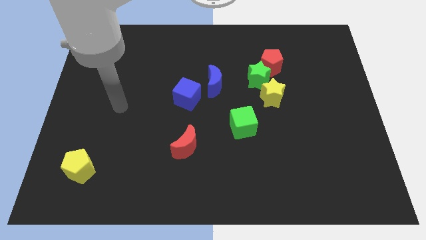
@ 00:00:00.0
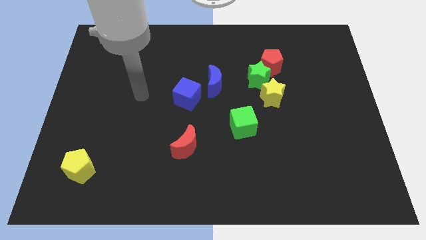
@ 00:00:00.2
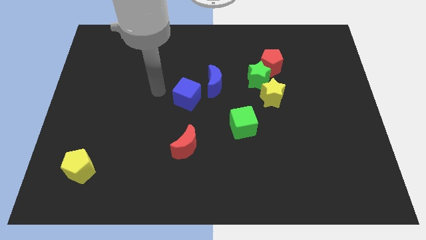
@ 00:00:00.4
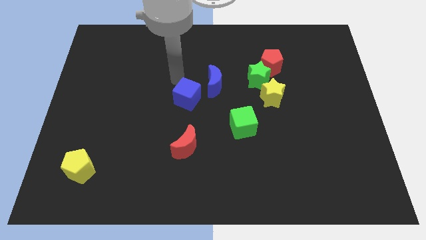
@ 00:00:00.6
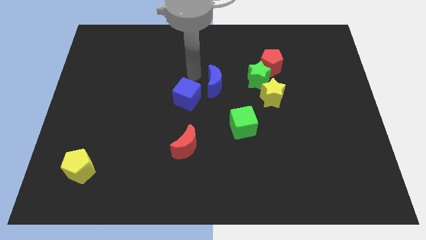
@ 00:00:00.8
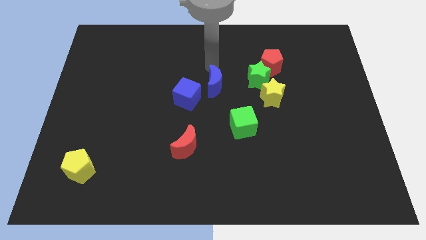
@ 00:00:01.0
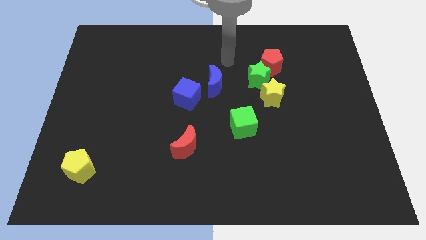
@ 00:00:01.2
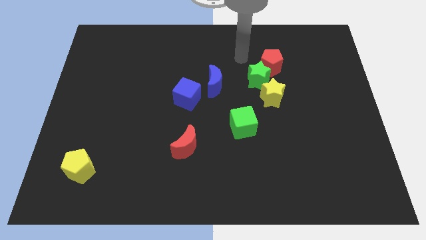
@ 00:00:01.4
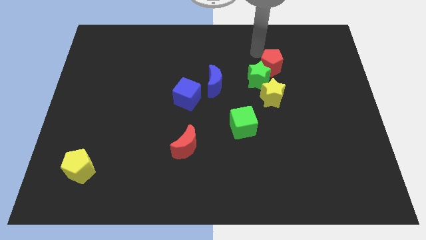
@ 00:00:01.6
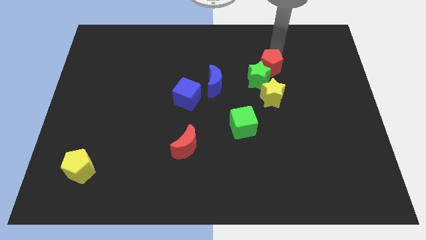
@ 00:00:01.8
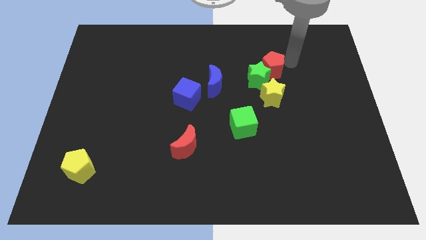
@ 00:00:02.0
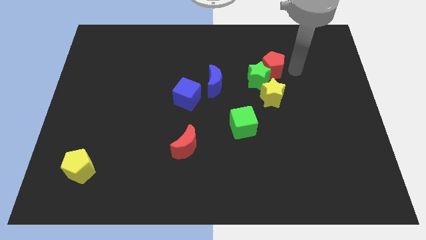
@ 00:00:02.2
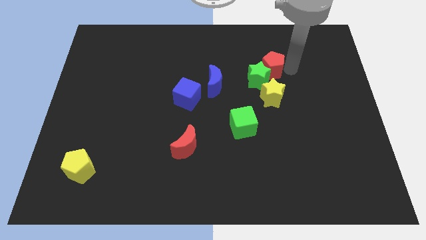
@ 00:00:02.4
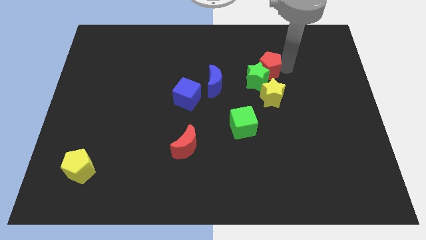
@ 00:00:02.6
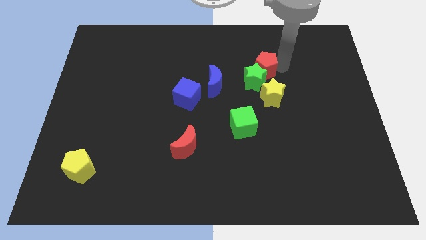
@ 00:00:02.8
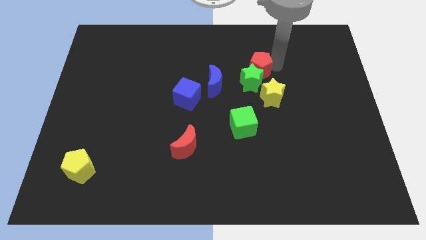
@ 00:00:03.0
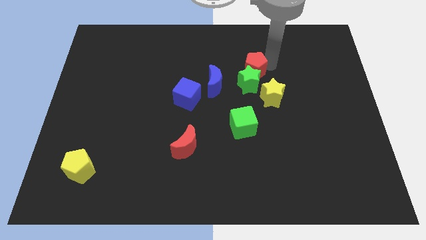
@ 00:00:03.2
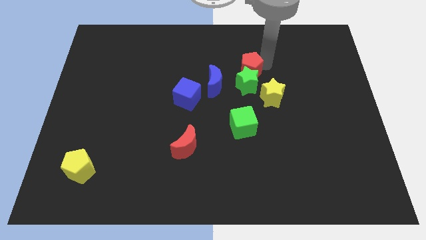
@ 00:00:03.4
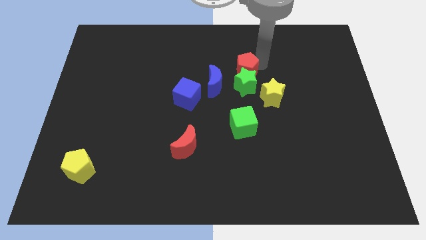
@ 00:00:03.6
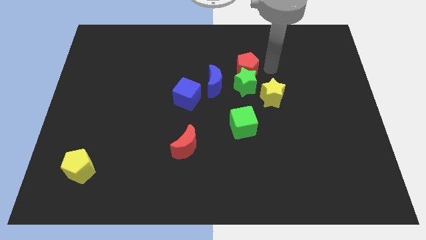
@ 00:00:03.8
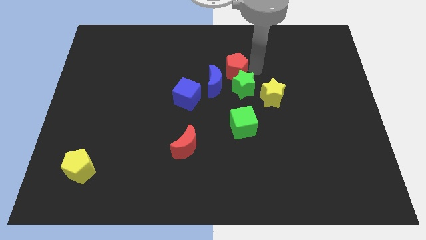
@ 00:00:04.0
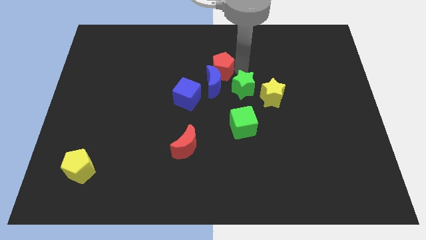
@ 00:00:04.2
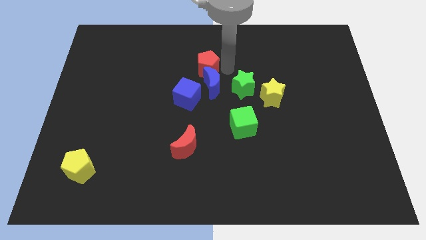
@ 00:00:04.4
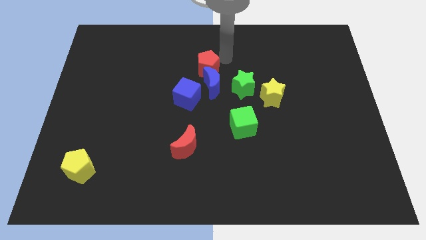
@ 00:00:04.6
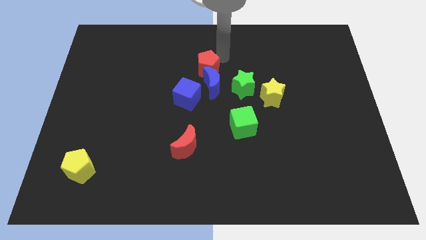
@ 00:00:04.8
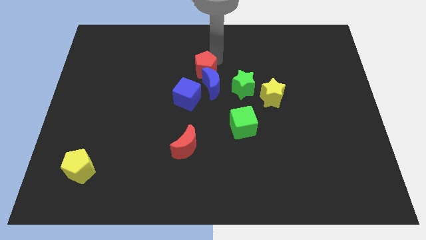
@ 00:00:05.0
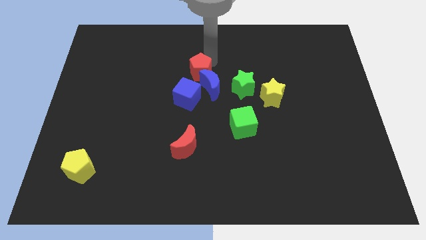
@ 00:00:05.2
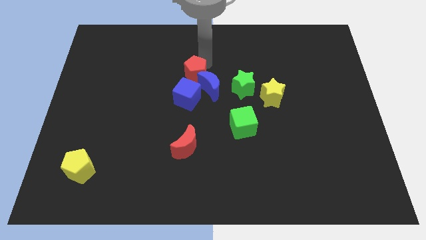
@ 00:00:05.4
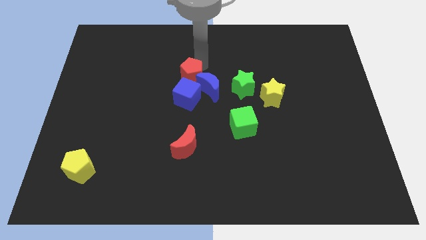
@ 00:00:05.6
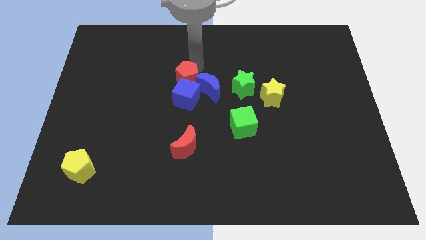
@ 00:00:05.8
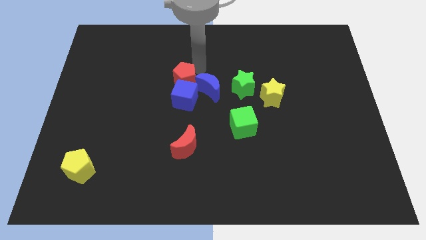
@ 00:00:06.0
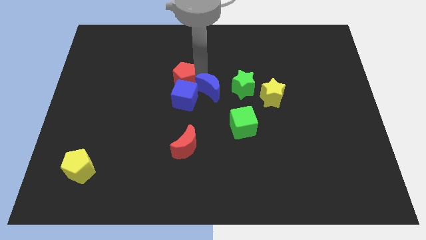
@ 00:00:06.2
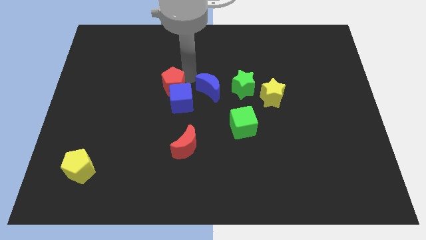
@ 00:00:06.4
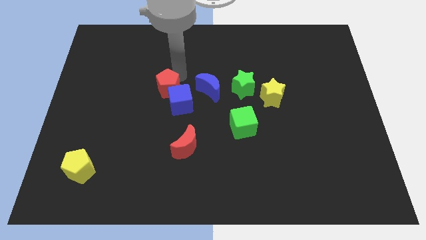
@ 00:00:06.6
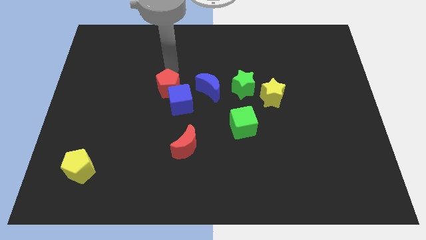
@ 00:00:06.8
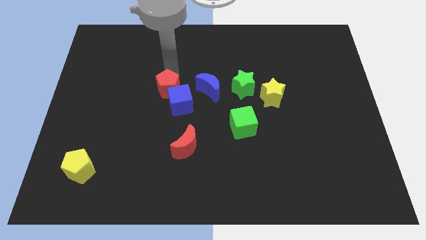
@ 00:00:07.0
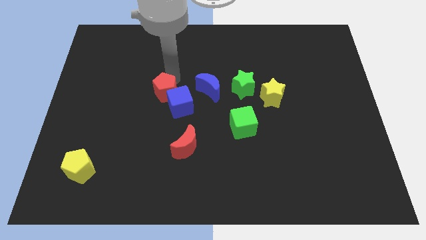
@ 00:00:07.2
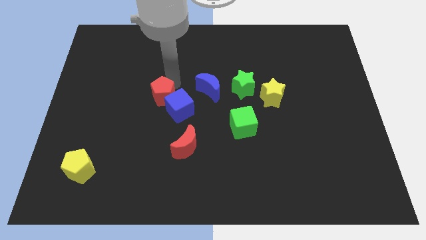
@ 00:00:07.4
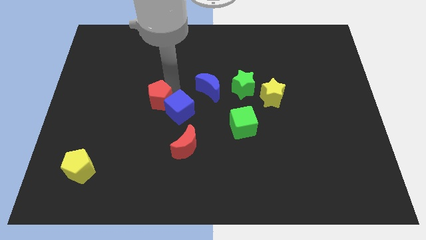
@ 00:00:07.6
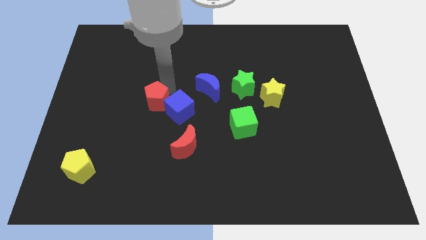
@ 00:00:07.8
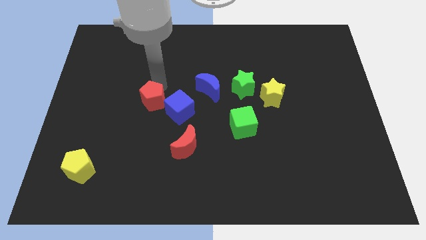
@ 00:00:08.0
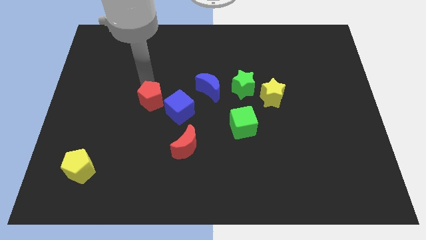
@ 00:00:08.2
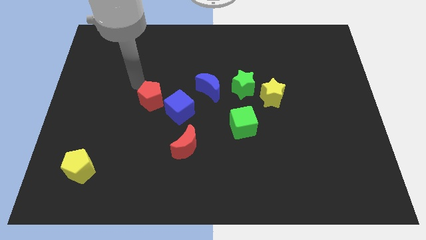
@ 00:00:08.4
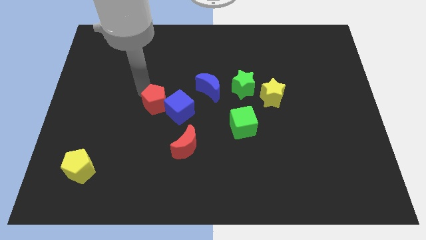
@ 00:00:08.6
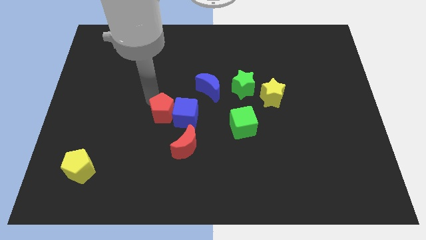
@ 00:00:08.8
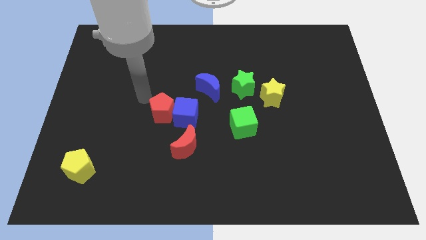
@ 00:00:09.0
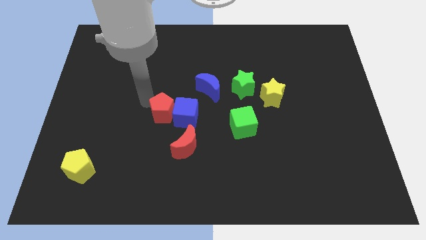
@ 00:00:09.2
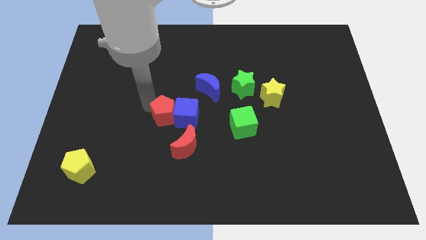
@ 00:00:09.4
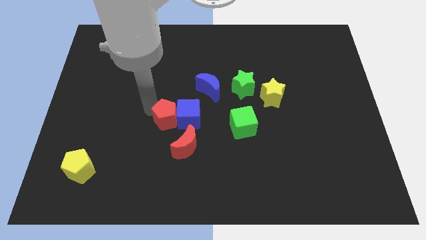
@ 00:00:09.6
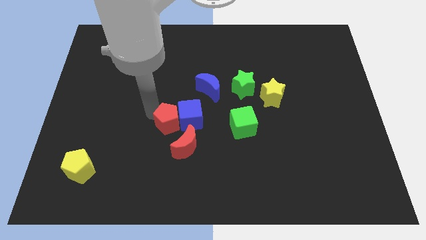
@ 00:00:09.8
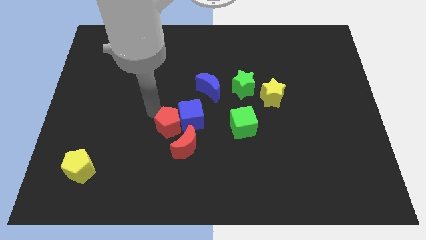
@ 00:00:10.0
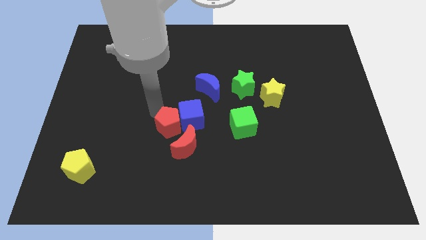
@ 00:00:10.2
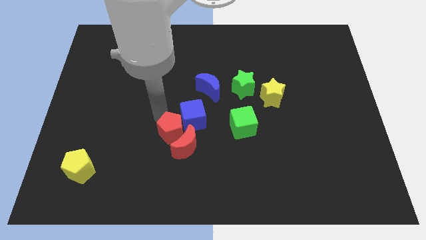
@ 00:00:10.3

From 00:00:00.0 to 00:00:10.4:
put the red pentagon close to the red moon

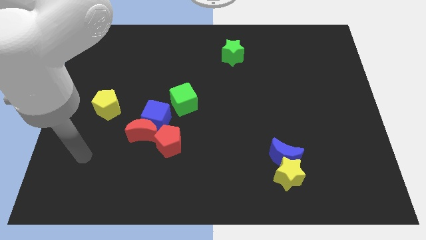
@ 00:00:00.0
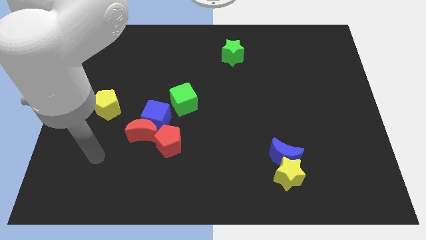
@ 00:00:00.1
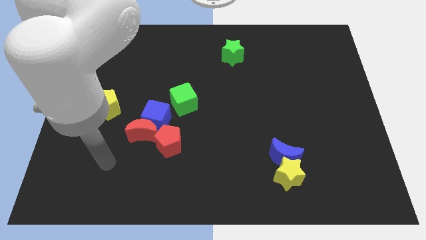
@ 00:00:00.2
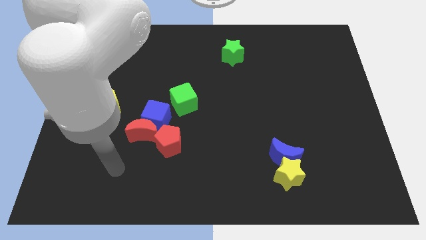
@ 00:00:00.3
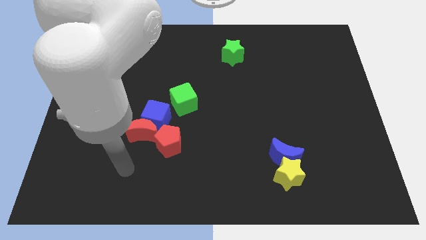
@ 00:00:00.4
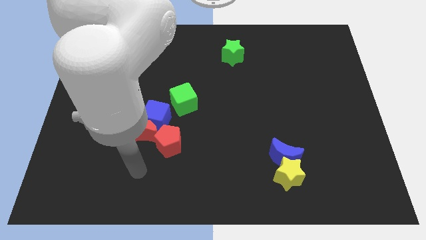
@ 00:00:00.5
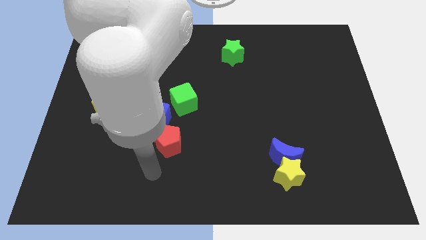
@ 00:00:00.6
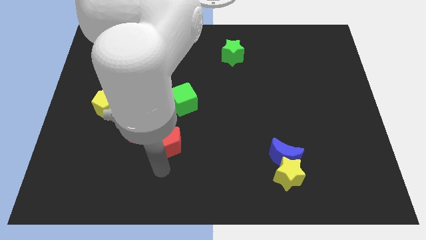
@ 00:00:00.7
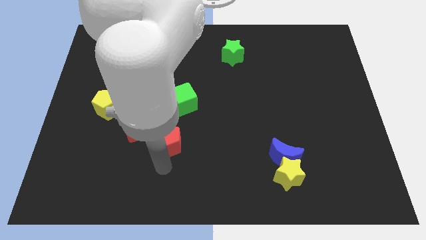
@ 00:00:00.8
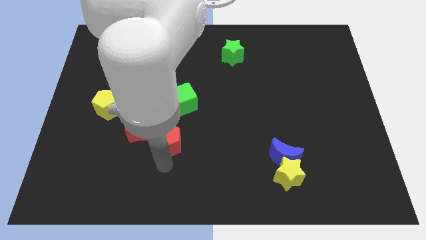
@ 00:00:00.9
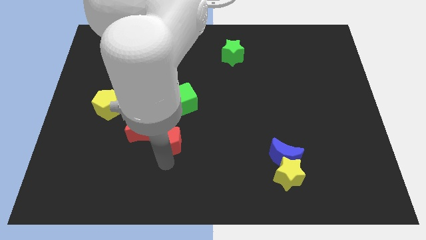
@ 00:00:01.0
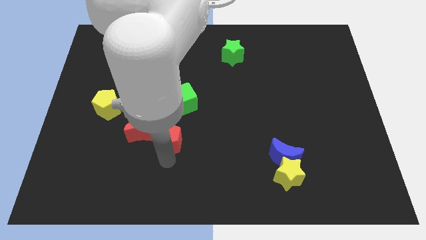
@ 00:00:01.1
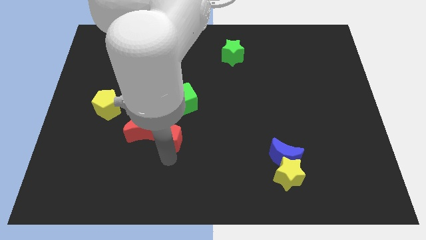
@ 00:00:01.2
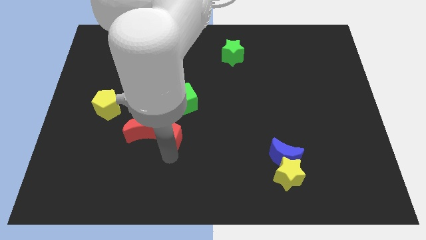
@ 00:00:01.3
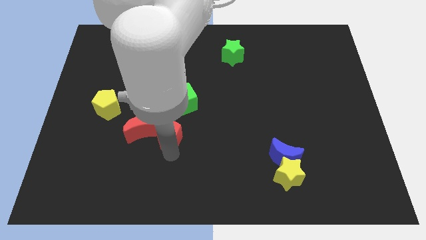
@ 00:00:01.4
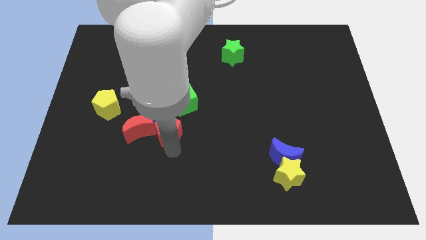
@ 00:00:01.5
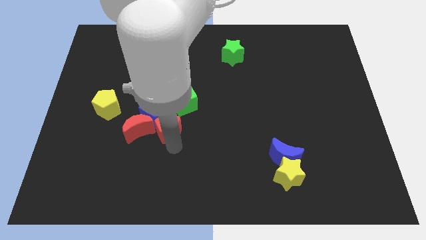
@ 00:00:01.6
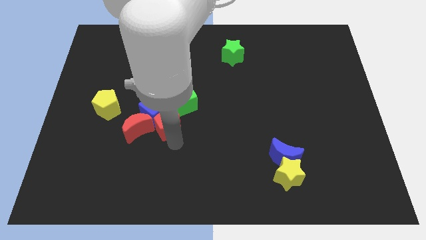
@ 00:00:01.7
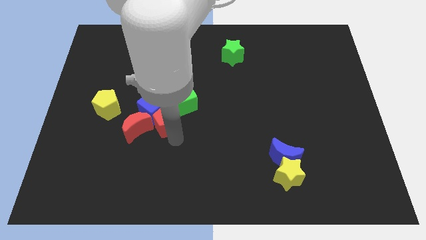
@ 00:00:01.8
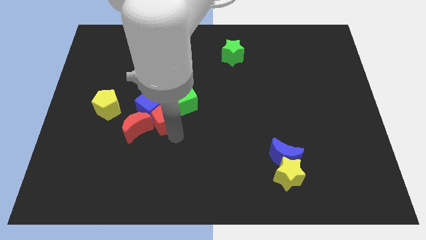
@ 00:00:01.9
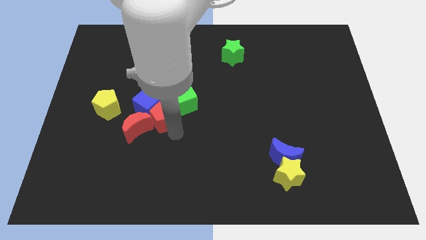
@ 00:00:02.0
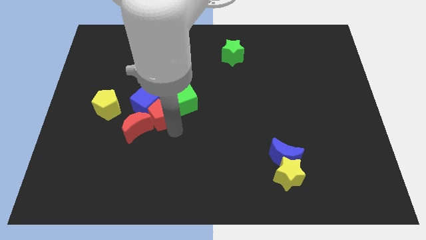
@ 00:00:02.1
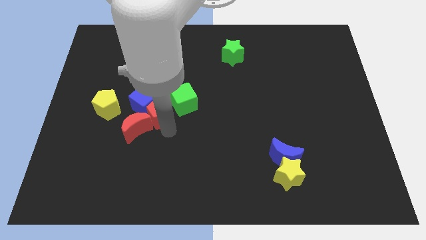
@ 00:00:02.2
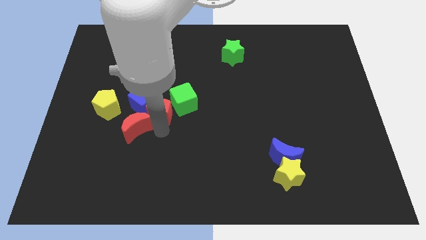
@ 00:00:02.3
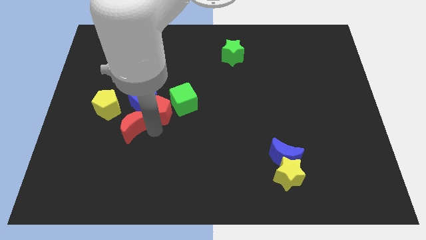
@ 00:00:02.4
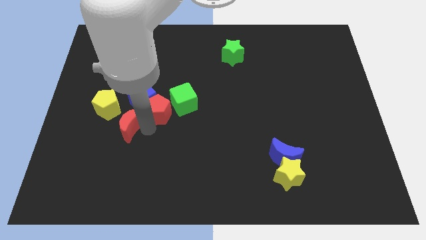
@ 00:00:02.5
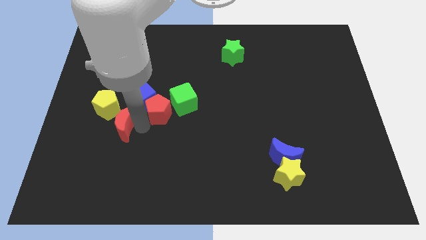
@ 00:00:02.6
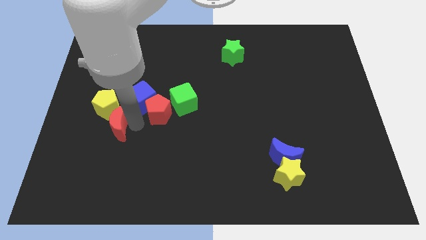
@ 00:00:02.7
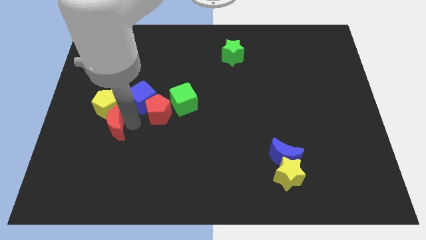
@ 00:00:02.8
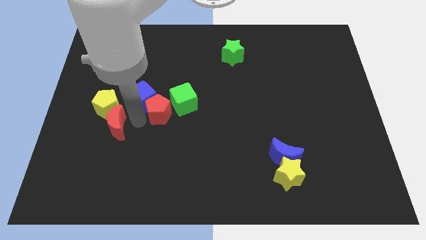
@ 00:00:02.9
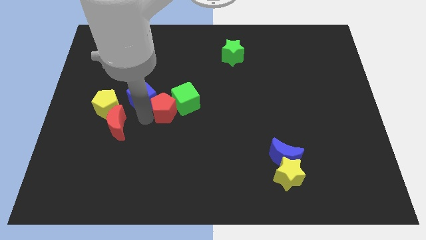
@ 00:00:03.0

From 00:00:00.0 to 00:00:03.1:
put the red pentagon close to the green cube
